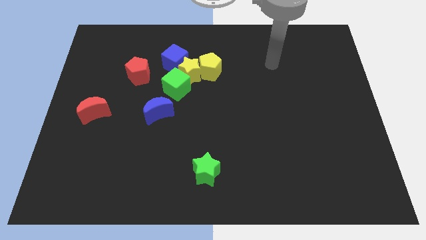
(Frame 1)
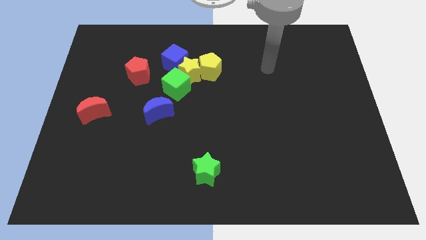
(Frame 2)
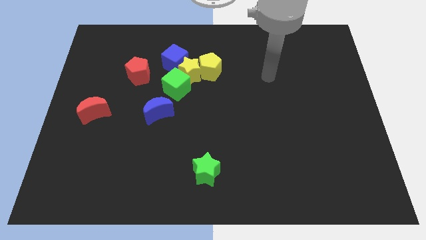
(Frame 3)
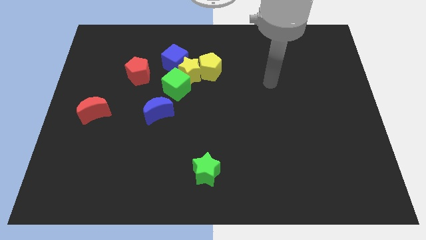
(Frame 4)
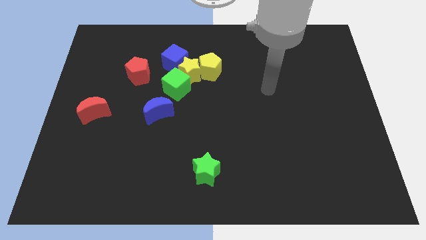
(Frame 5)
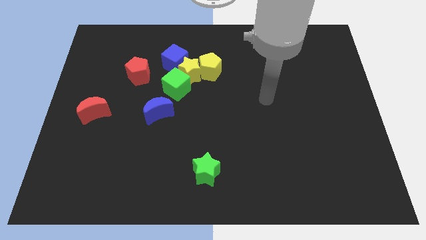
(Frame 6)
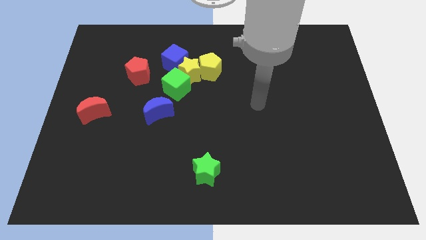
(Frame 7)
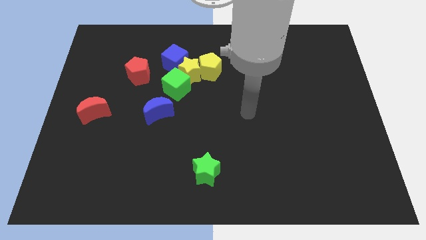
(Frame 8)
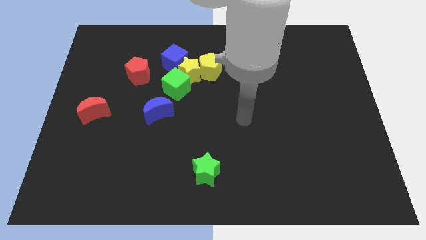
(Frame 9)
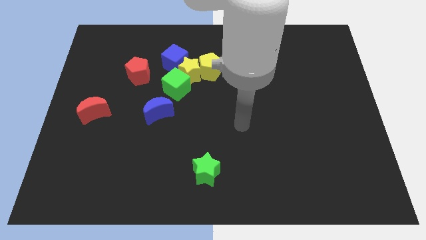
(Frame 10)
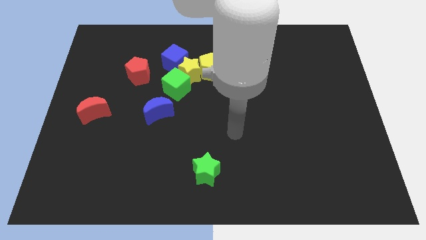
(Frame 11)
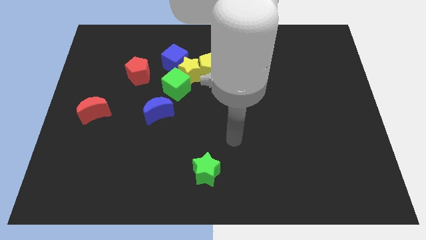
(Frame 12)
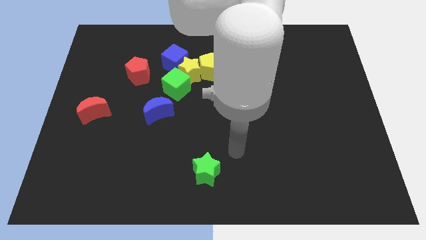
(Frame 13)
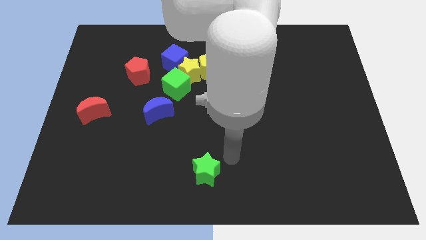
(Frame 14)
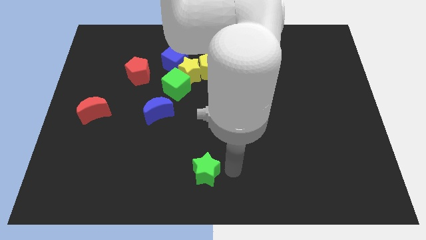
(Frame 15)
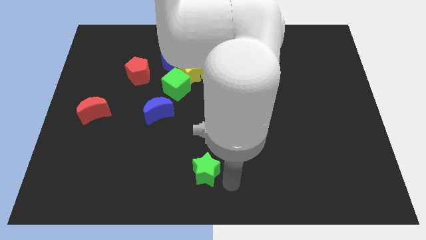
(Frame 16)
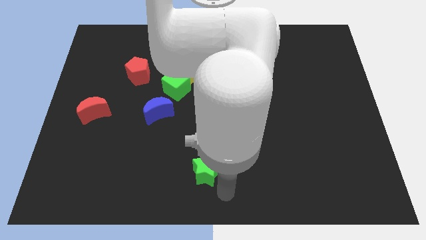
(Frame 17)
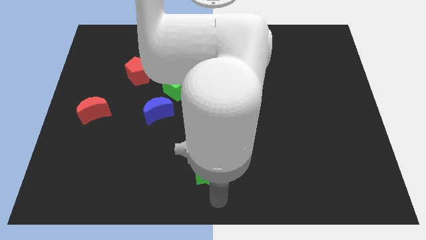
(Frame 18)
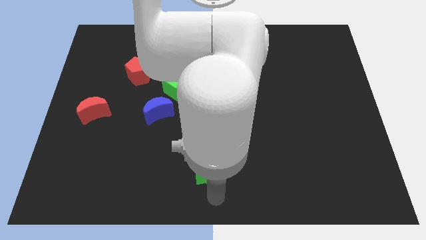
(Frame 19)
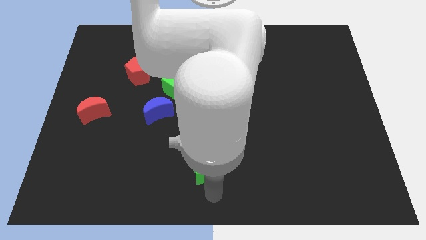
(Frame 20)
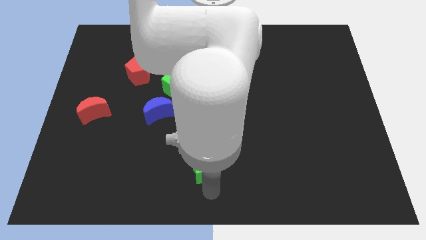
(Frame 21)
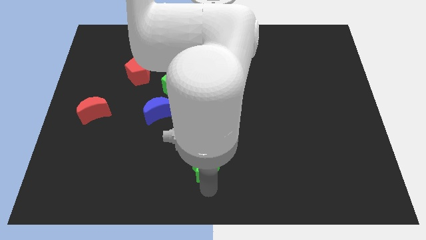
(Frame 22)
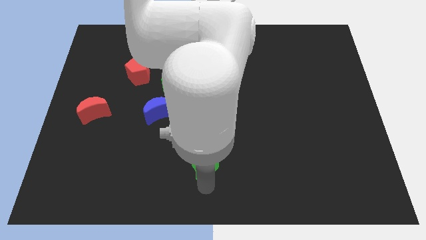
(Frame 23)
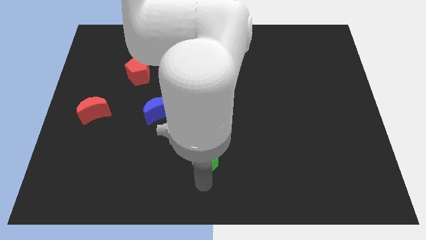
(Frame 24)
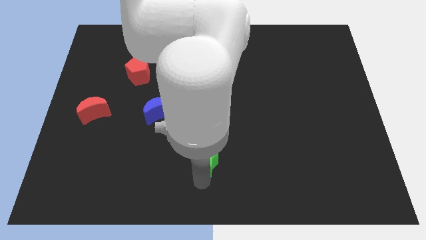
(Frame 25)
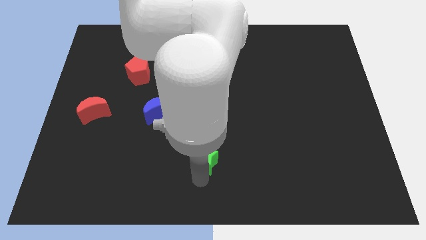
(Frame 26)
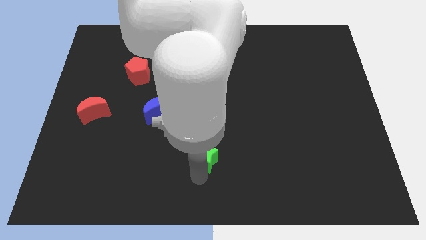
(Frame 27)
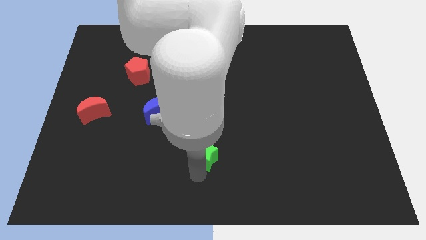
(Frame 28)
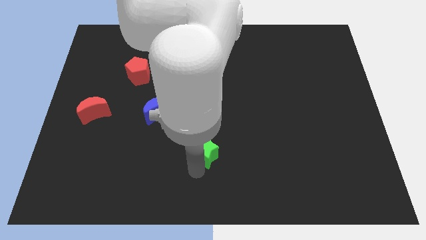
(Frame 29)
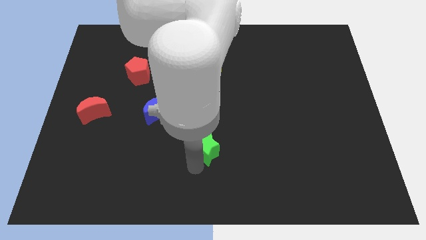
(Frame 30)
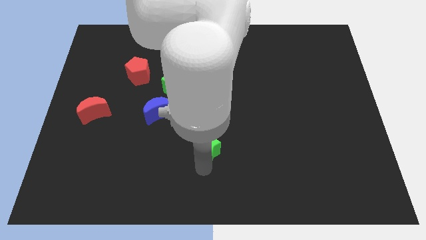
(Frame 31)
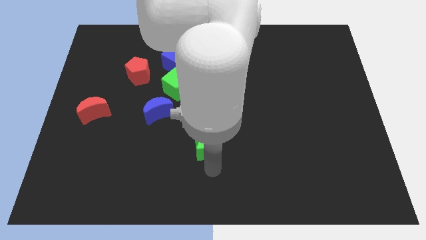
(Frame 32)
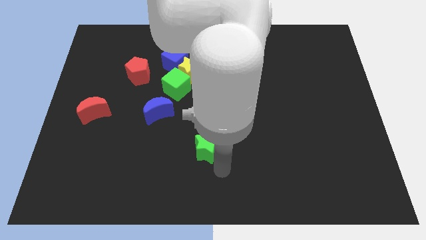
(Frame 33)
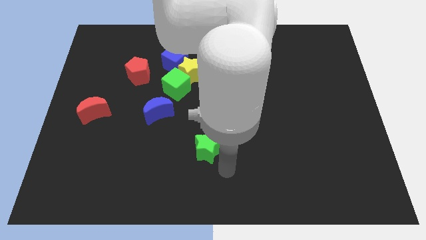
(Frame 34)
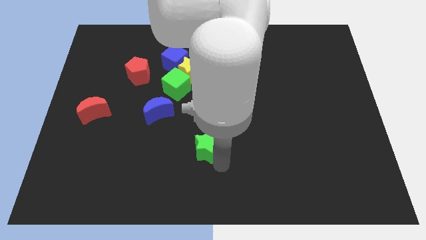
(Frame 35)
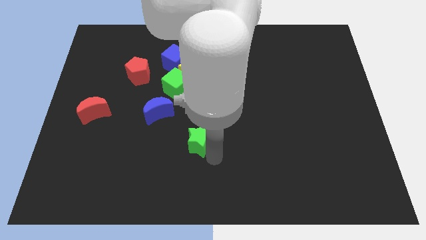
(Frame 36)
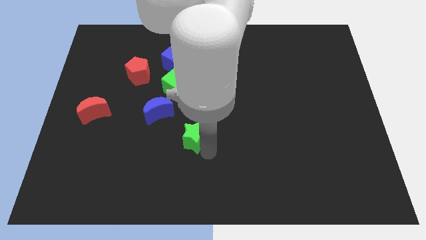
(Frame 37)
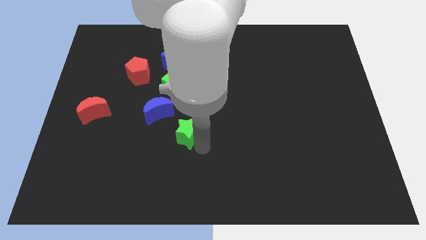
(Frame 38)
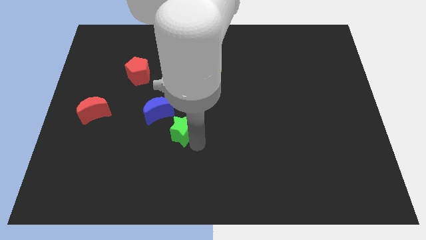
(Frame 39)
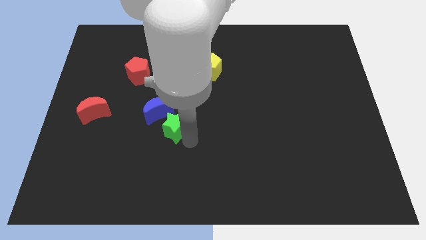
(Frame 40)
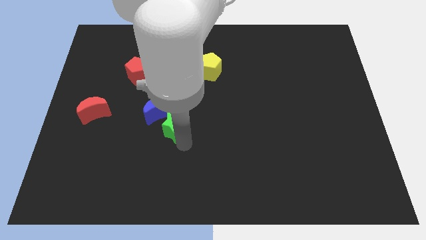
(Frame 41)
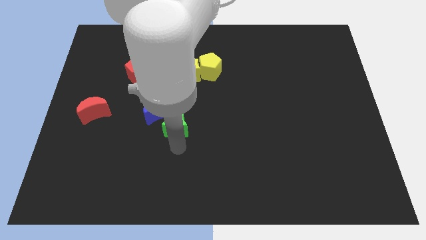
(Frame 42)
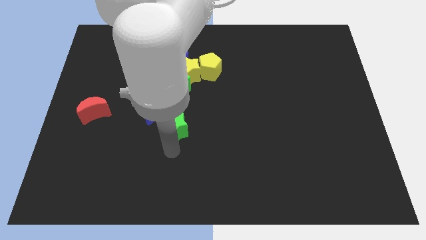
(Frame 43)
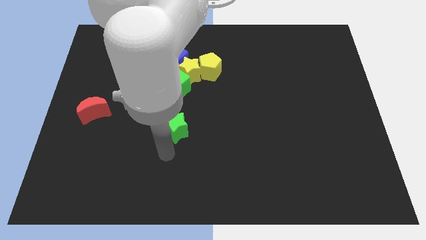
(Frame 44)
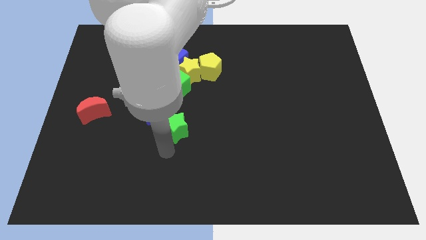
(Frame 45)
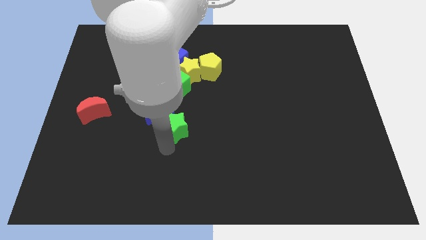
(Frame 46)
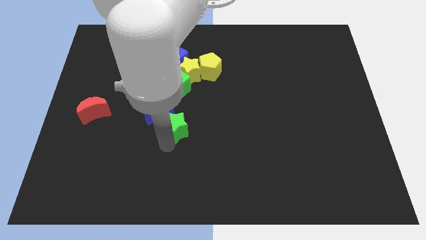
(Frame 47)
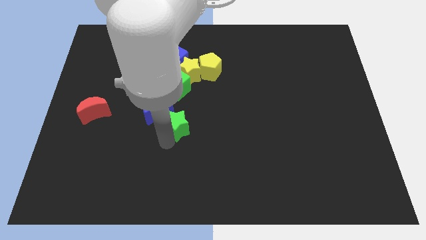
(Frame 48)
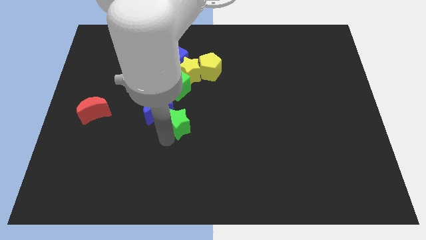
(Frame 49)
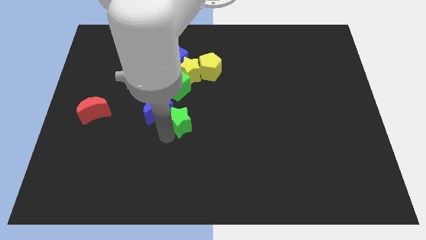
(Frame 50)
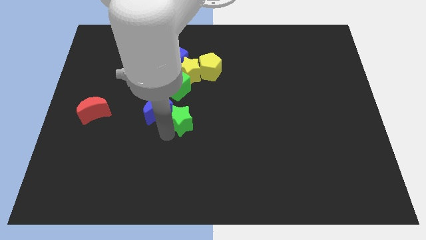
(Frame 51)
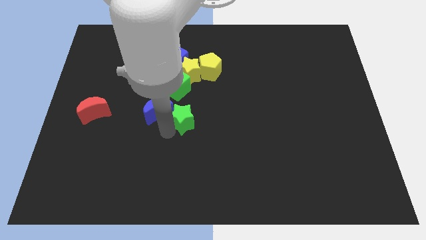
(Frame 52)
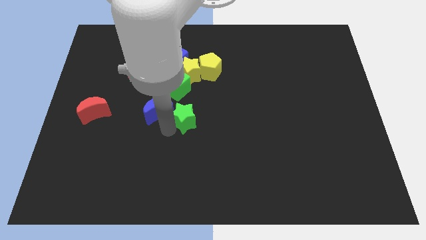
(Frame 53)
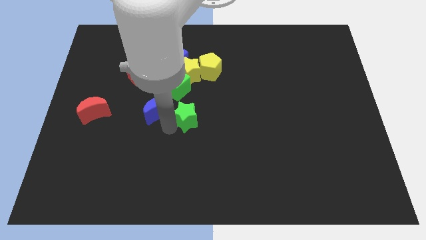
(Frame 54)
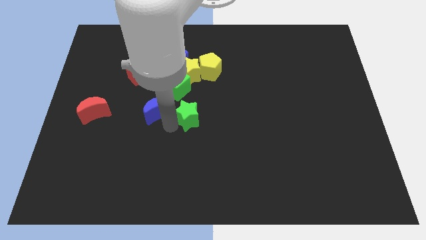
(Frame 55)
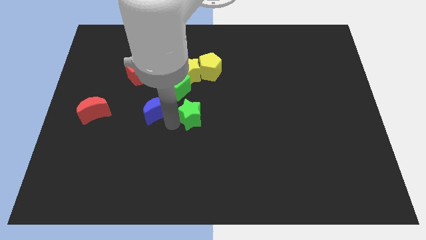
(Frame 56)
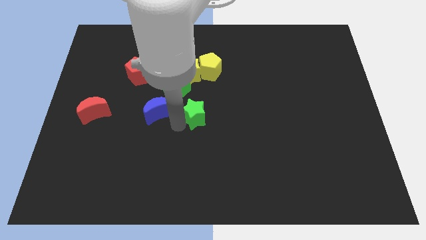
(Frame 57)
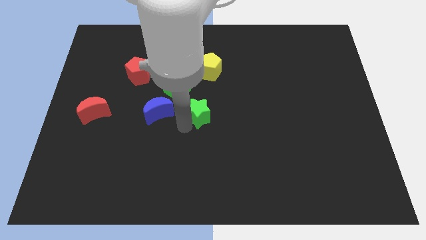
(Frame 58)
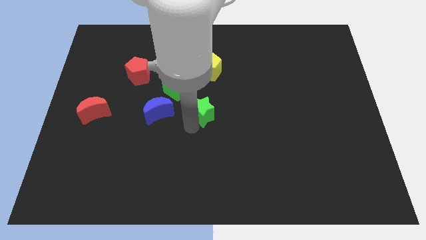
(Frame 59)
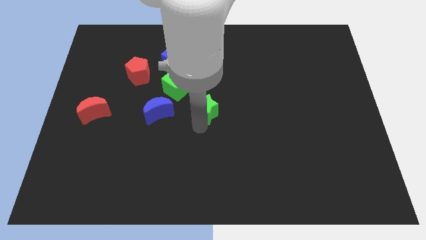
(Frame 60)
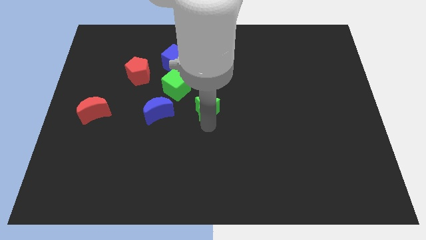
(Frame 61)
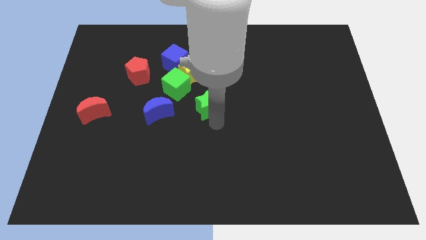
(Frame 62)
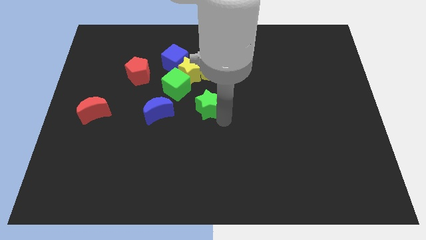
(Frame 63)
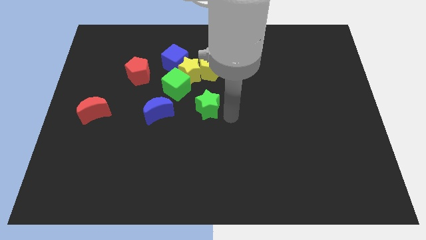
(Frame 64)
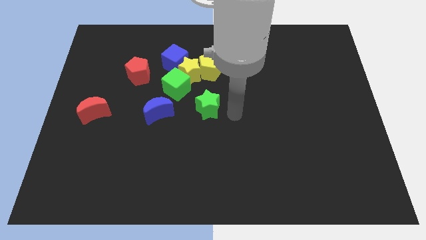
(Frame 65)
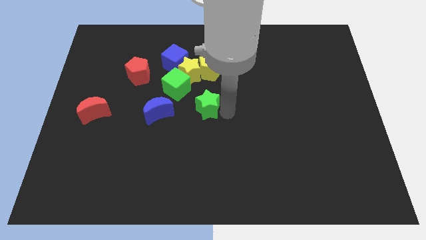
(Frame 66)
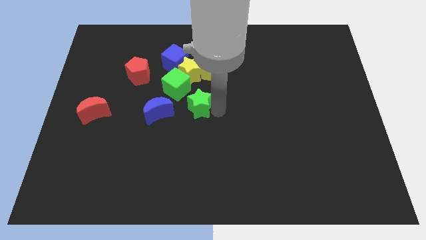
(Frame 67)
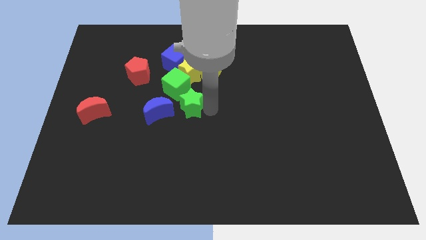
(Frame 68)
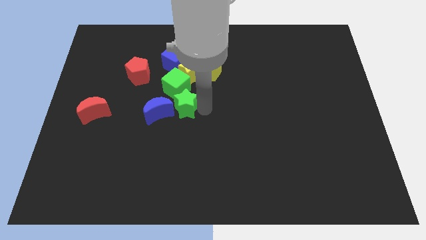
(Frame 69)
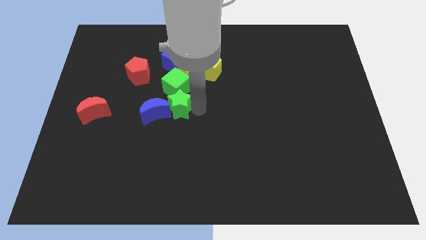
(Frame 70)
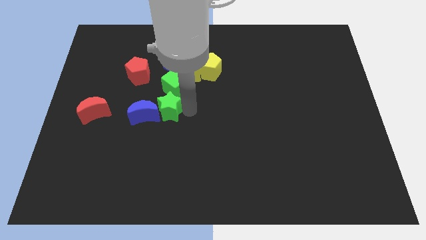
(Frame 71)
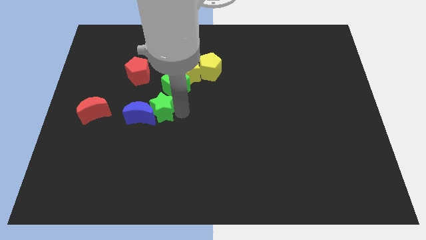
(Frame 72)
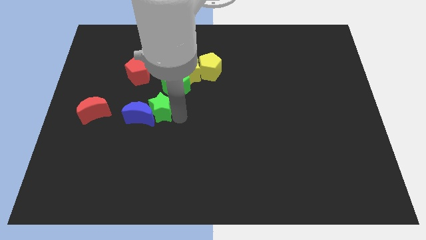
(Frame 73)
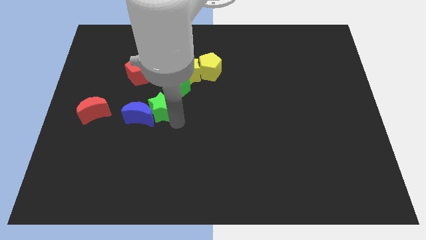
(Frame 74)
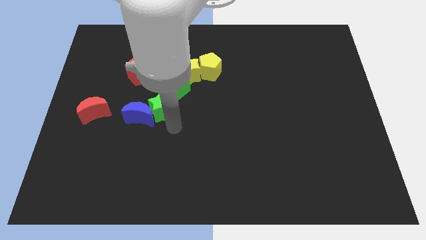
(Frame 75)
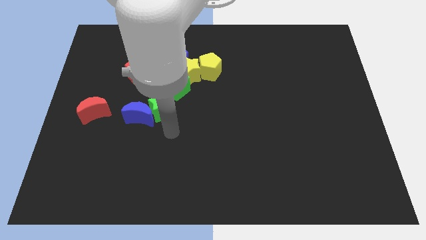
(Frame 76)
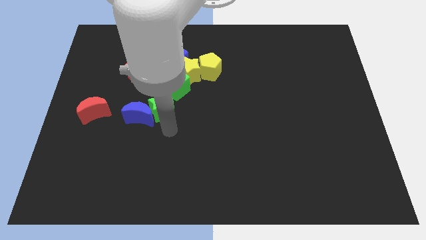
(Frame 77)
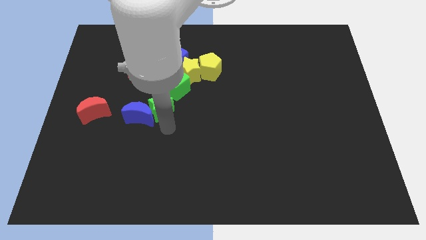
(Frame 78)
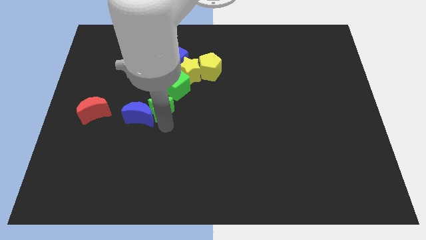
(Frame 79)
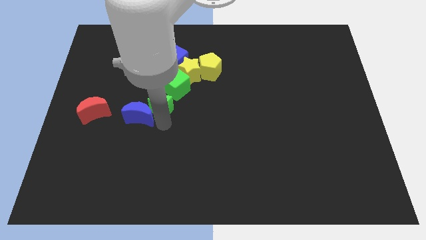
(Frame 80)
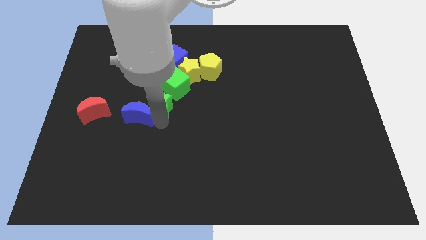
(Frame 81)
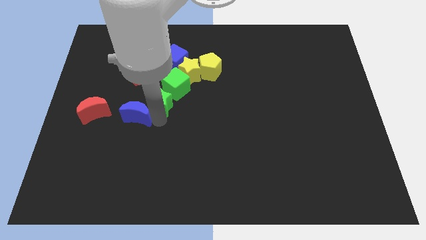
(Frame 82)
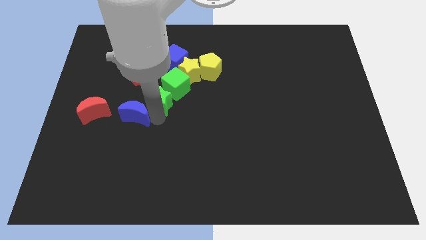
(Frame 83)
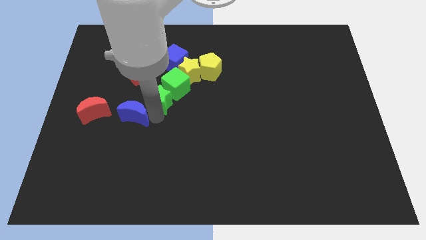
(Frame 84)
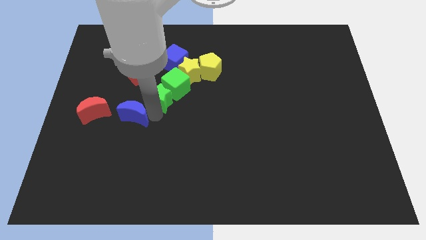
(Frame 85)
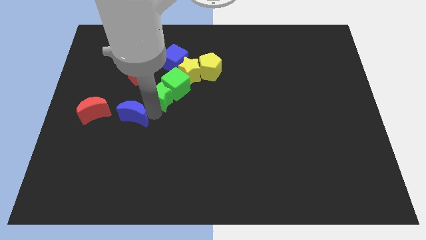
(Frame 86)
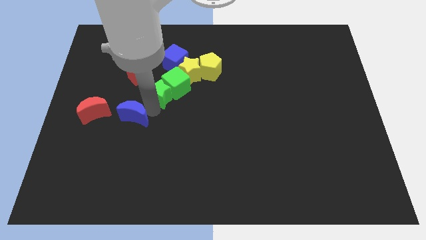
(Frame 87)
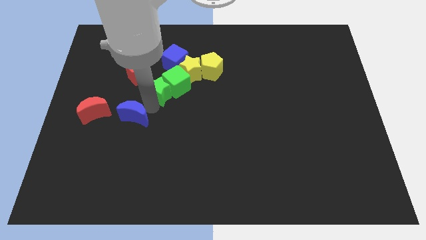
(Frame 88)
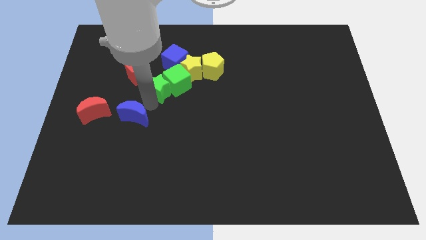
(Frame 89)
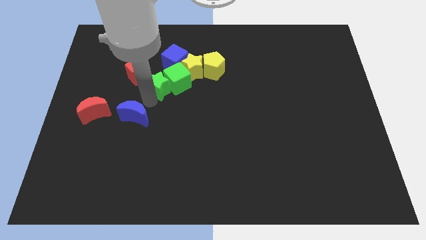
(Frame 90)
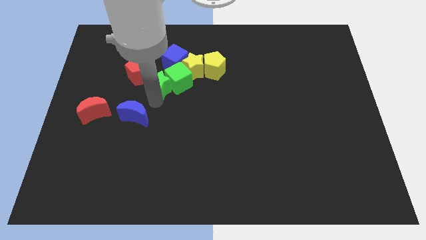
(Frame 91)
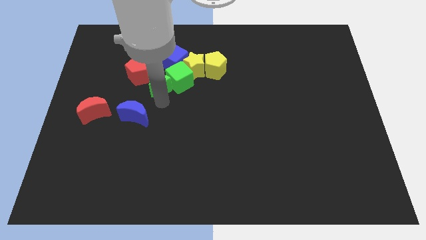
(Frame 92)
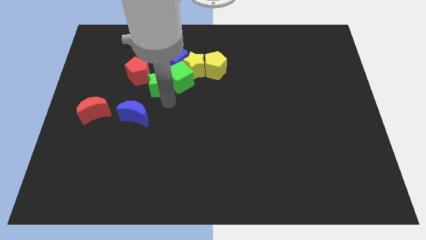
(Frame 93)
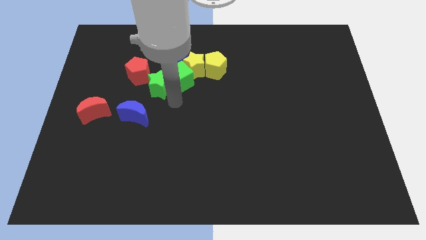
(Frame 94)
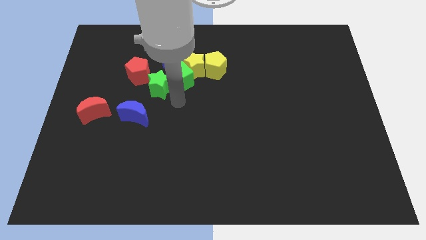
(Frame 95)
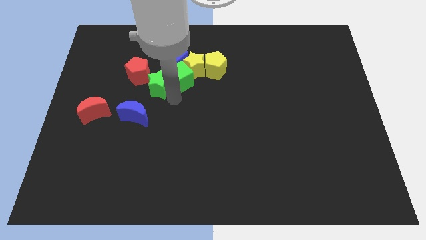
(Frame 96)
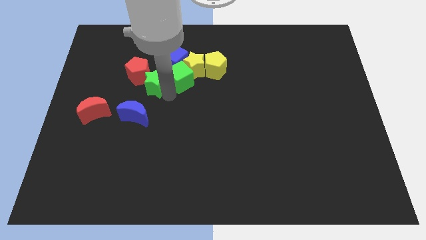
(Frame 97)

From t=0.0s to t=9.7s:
slide the green star to the red pentagon
